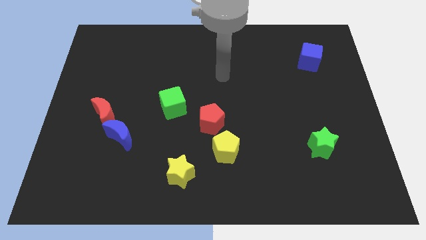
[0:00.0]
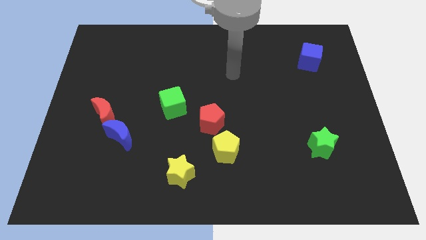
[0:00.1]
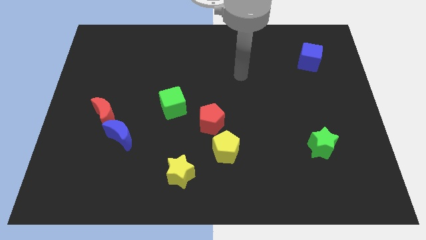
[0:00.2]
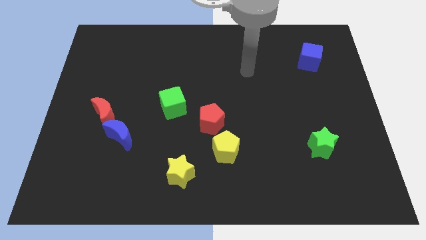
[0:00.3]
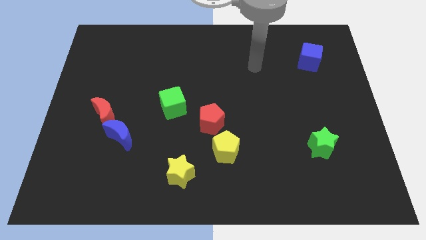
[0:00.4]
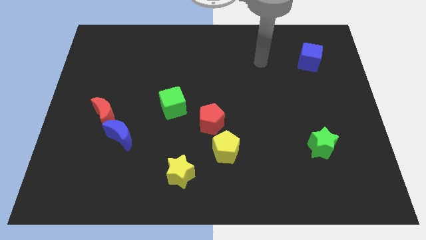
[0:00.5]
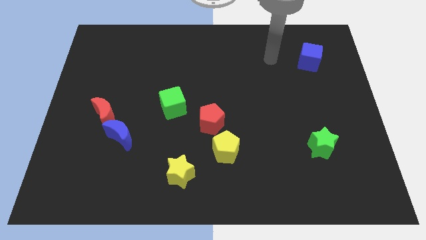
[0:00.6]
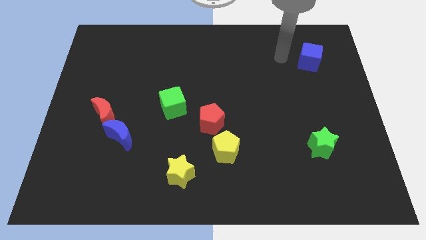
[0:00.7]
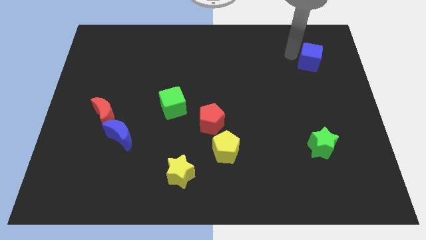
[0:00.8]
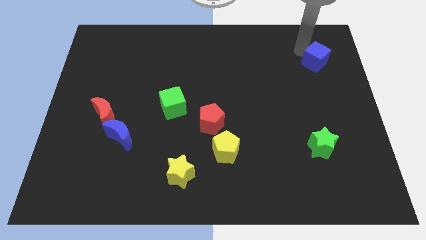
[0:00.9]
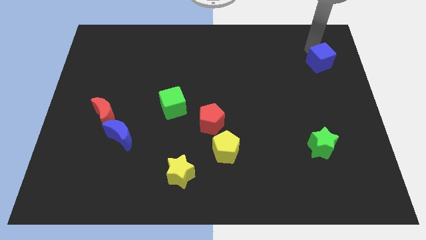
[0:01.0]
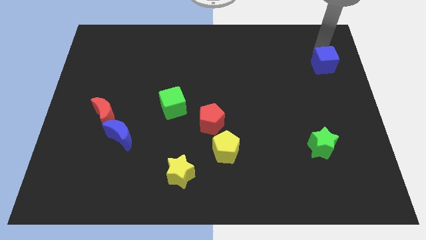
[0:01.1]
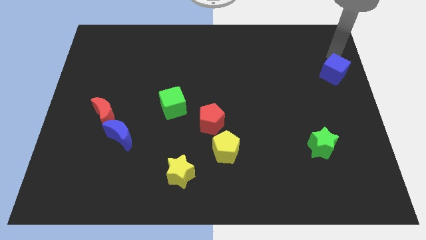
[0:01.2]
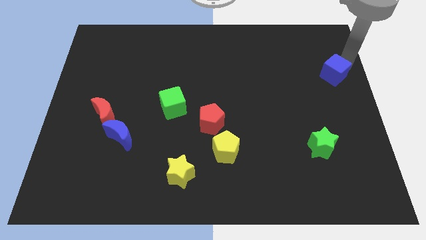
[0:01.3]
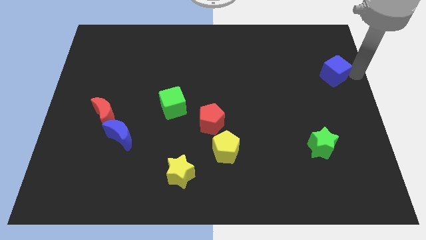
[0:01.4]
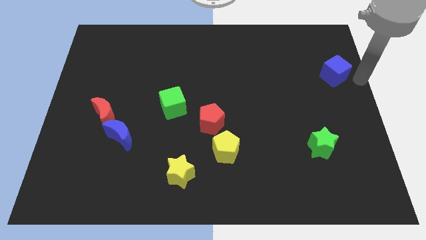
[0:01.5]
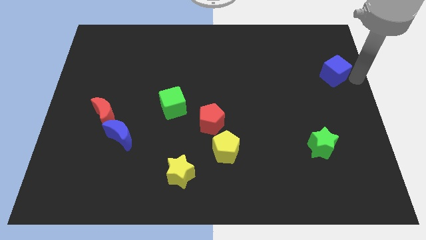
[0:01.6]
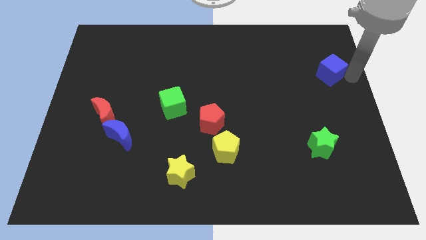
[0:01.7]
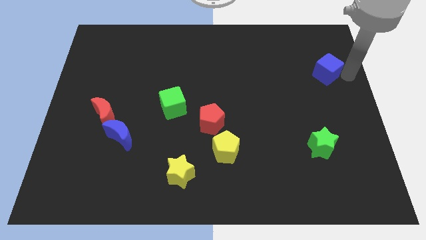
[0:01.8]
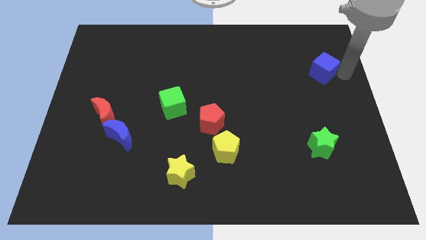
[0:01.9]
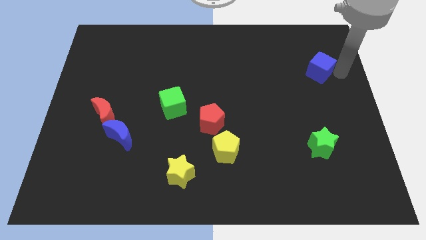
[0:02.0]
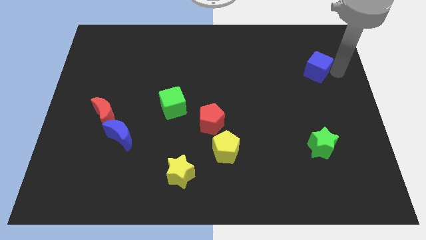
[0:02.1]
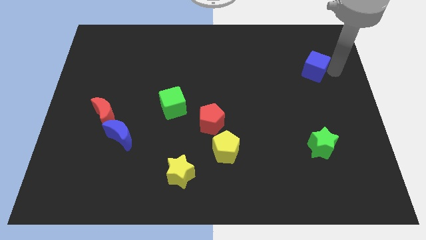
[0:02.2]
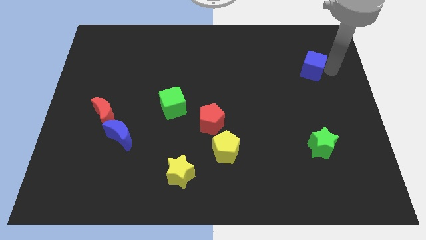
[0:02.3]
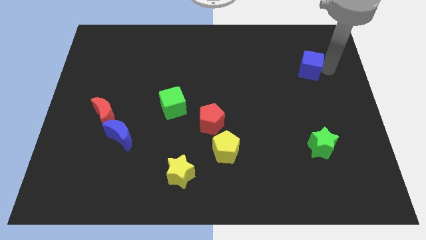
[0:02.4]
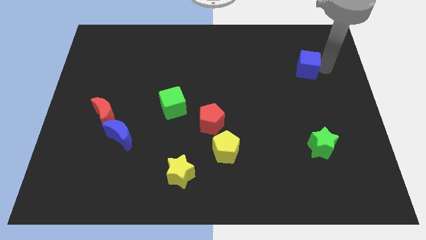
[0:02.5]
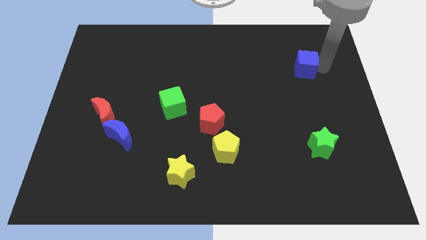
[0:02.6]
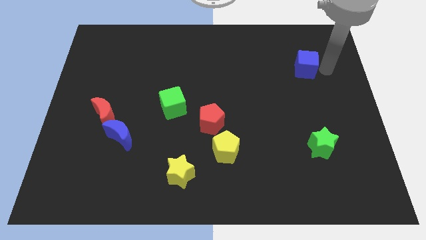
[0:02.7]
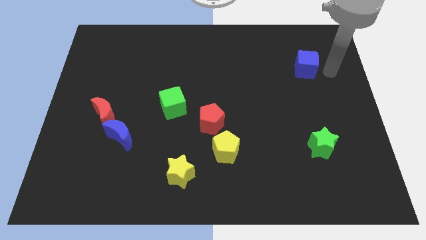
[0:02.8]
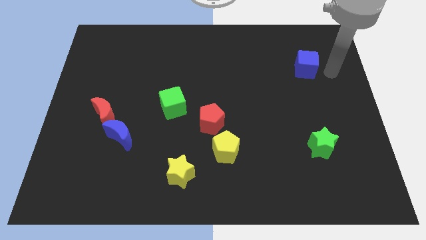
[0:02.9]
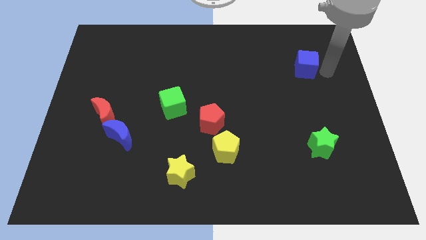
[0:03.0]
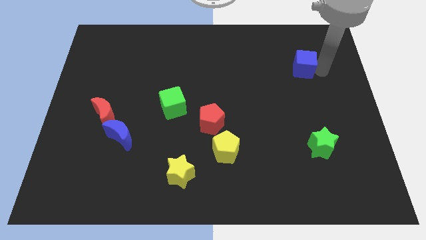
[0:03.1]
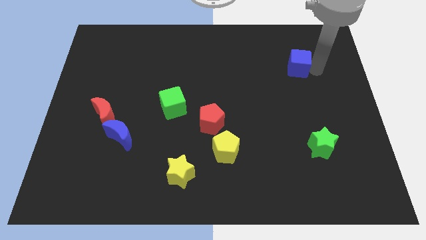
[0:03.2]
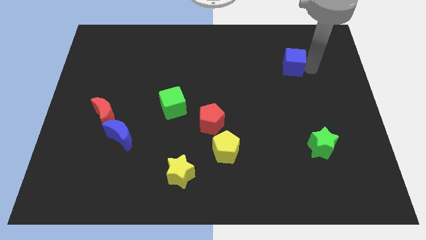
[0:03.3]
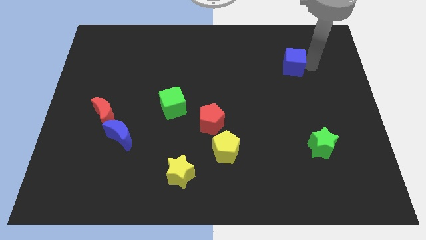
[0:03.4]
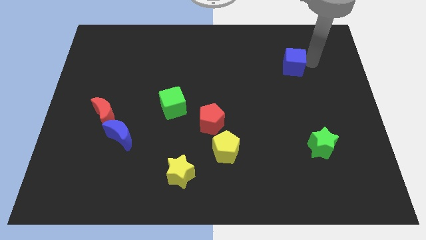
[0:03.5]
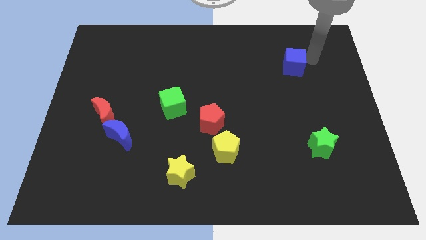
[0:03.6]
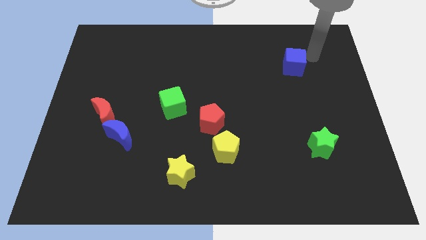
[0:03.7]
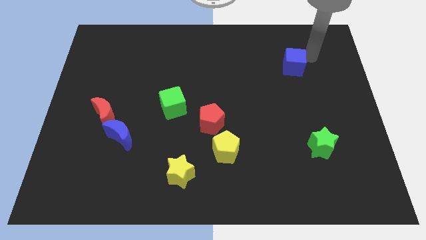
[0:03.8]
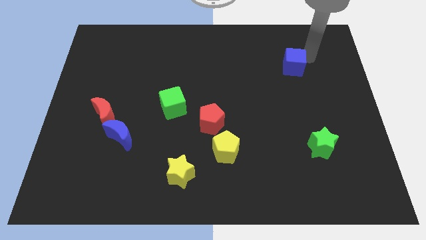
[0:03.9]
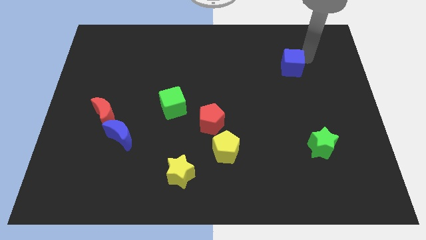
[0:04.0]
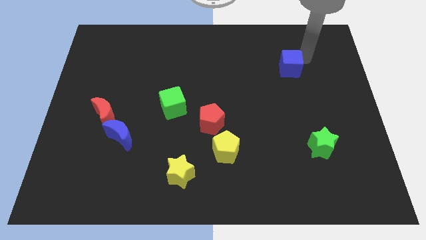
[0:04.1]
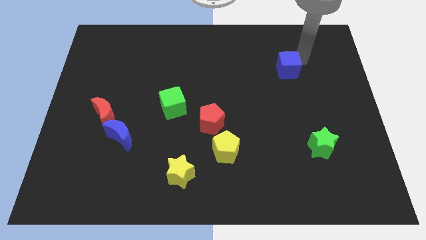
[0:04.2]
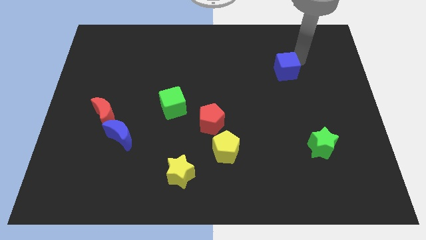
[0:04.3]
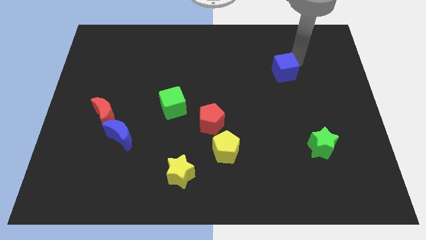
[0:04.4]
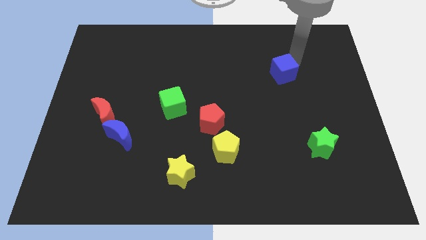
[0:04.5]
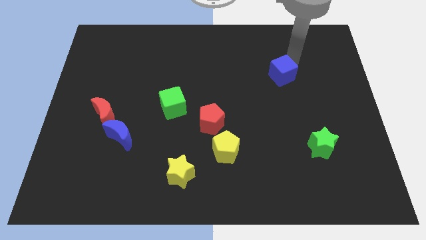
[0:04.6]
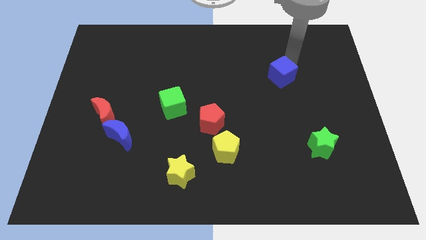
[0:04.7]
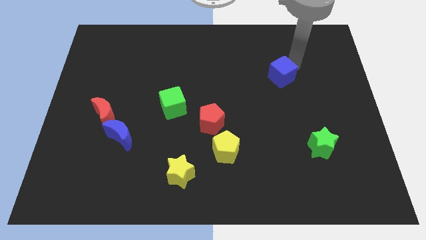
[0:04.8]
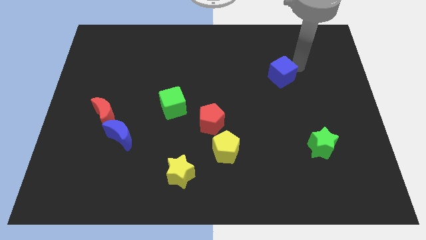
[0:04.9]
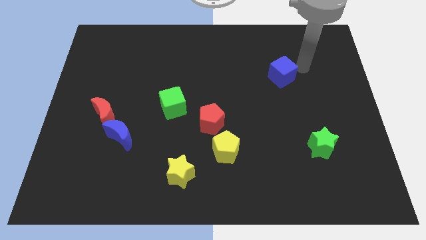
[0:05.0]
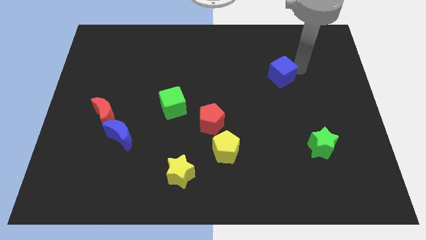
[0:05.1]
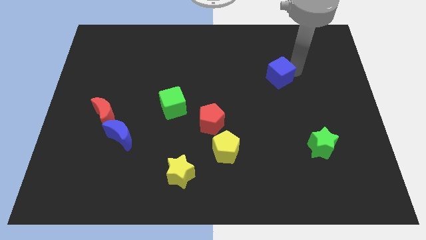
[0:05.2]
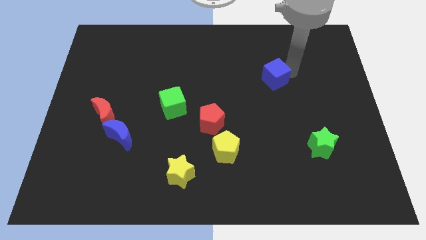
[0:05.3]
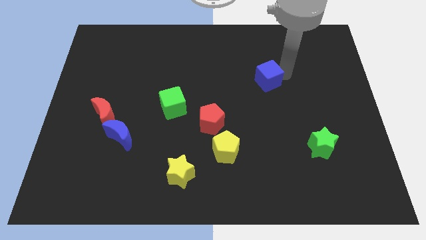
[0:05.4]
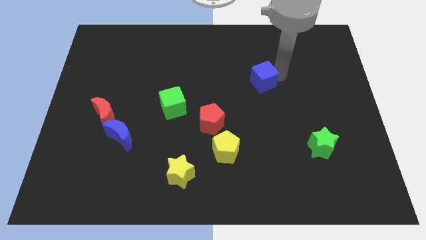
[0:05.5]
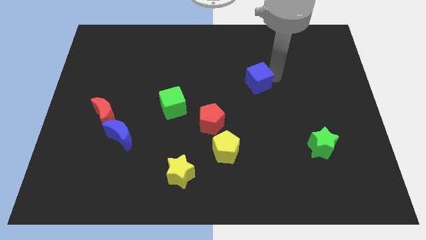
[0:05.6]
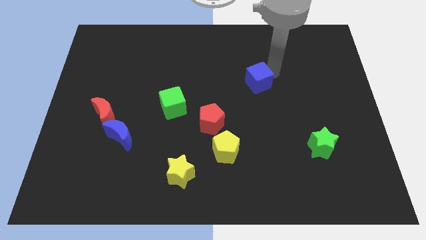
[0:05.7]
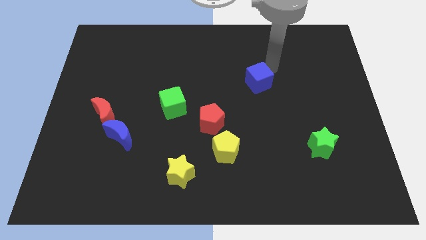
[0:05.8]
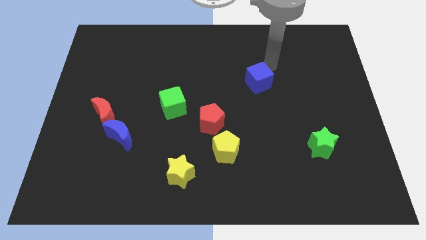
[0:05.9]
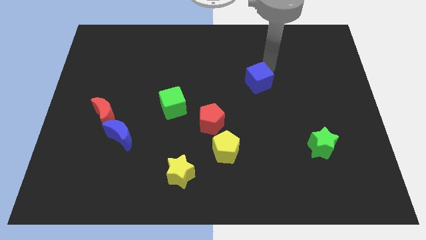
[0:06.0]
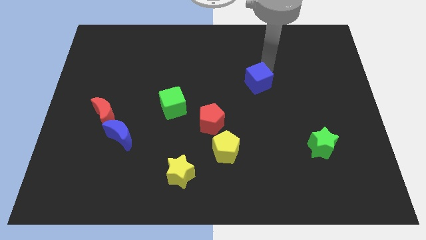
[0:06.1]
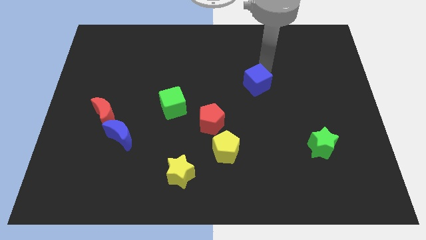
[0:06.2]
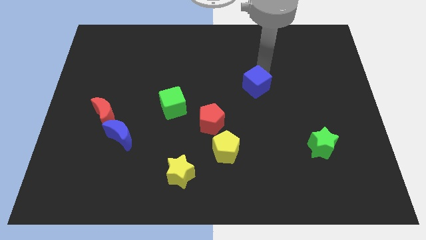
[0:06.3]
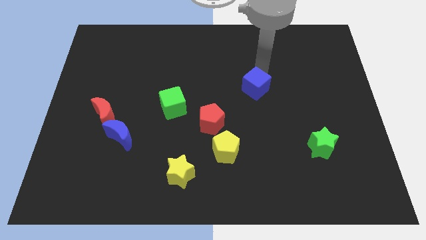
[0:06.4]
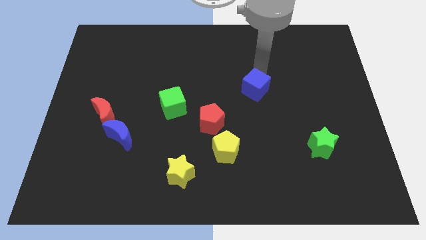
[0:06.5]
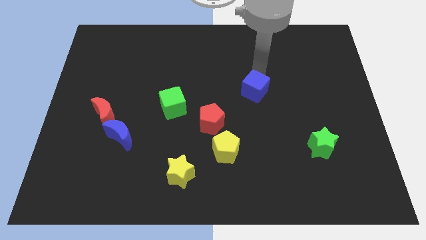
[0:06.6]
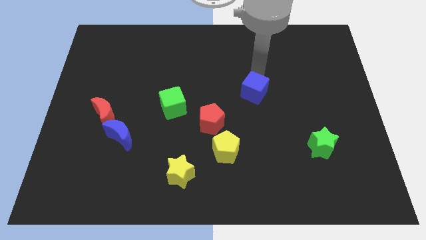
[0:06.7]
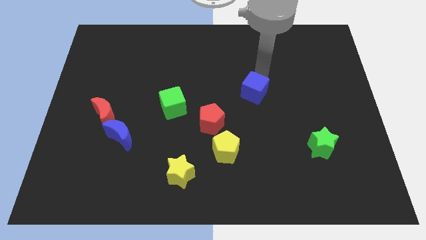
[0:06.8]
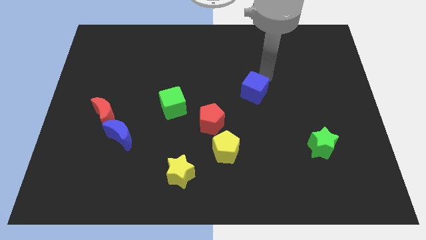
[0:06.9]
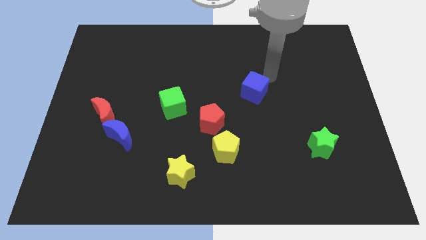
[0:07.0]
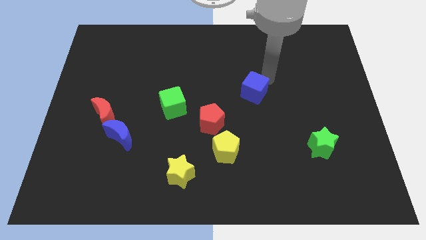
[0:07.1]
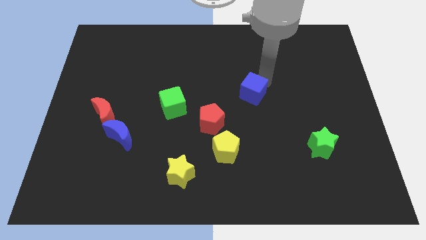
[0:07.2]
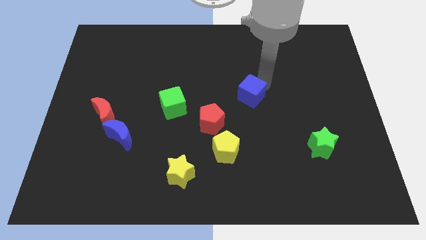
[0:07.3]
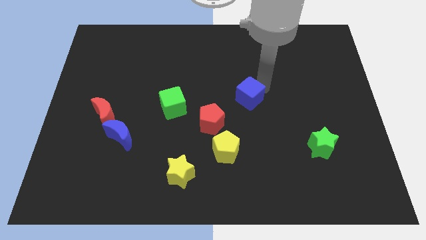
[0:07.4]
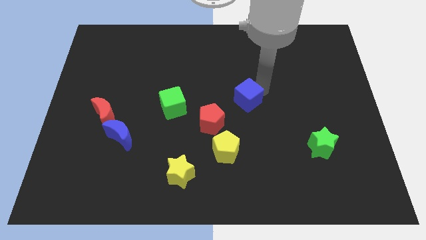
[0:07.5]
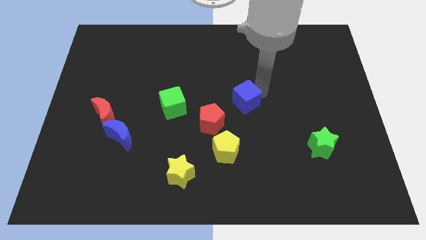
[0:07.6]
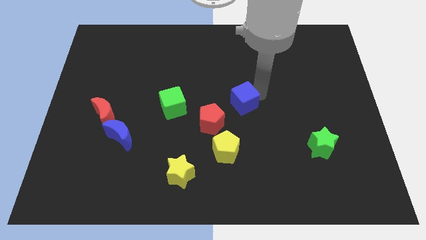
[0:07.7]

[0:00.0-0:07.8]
move the blue cube to the top side of the yellow pentagon
